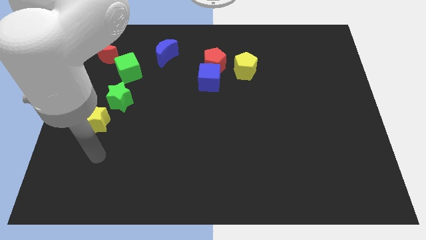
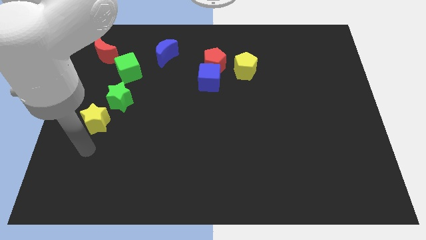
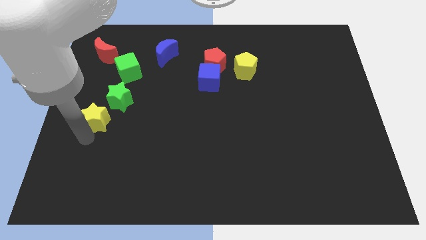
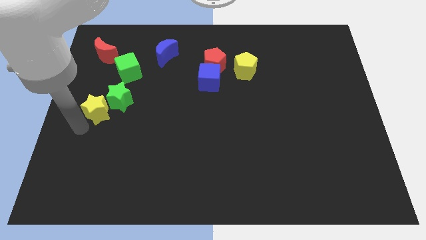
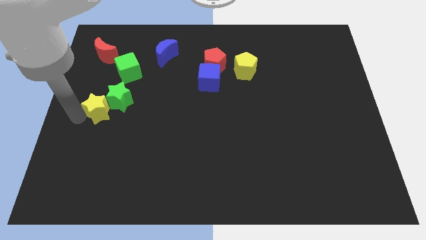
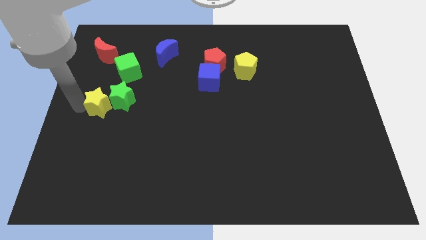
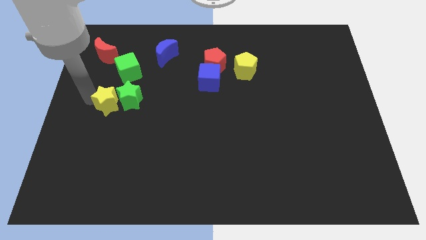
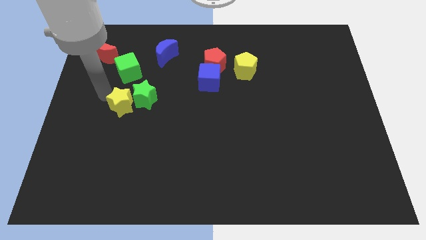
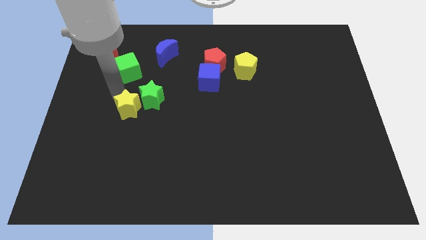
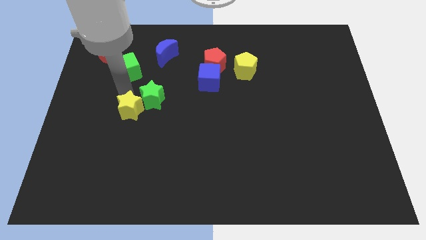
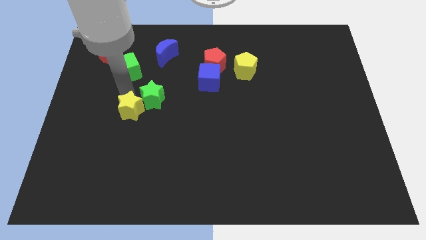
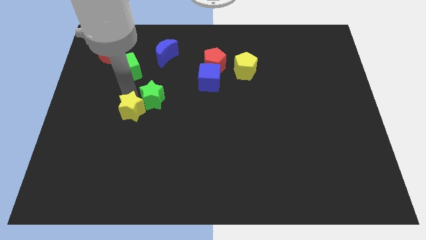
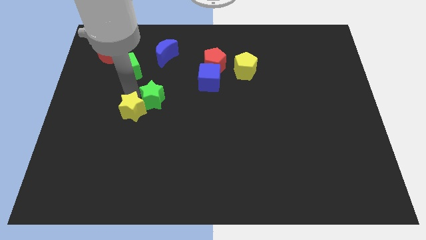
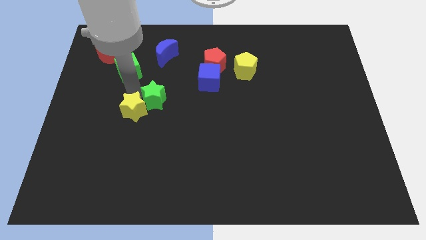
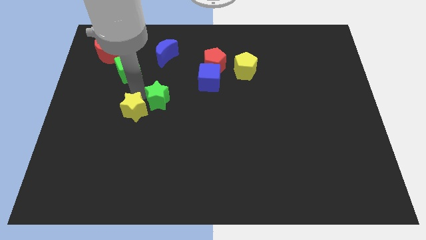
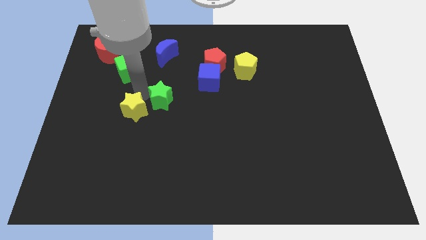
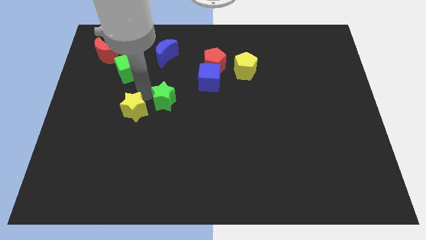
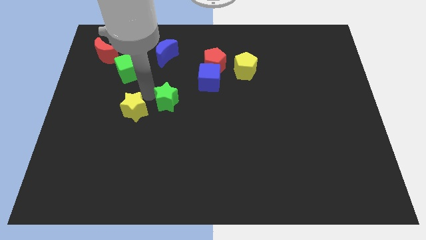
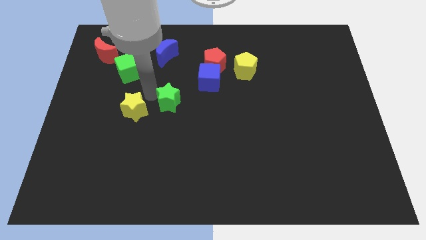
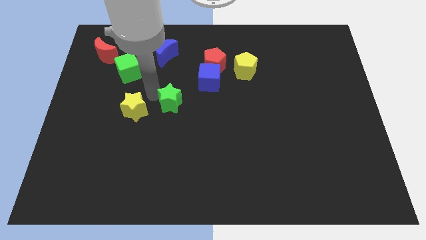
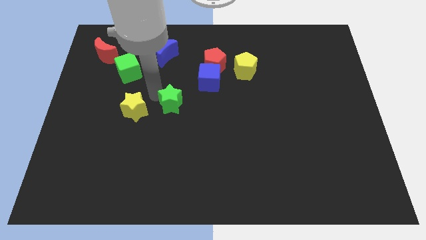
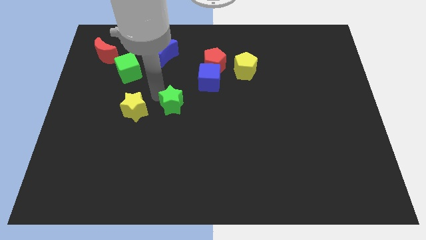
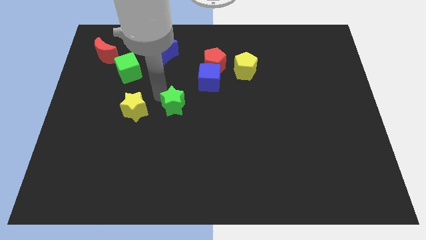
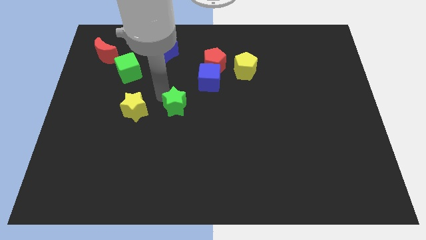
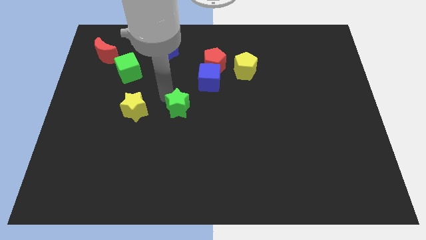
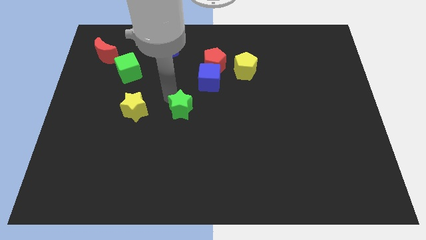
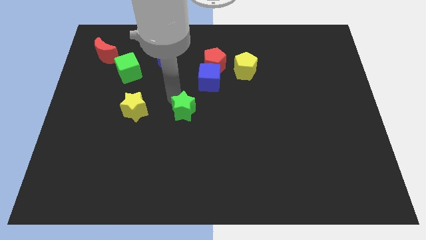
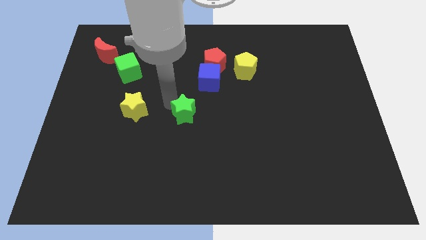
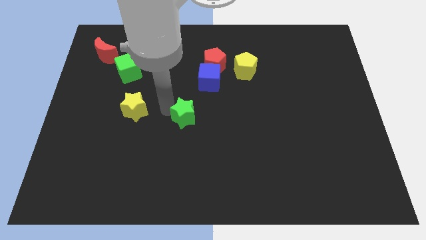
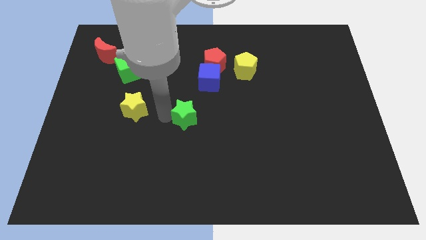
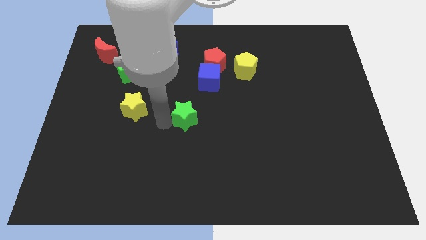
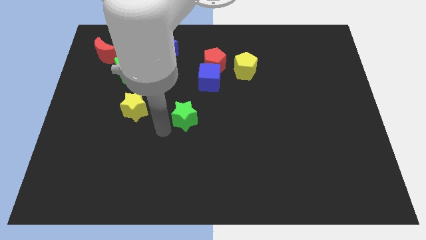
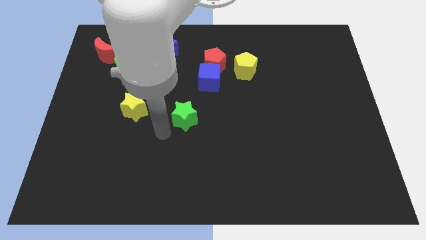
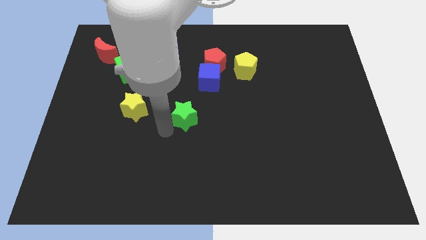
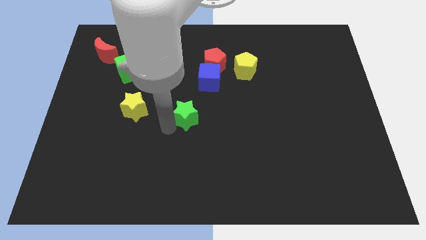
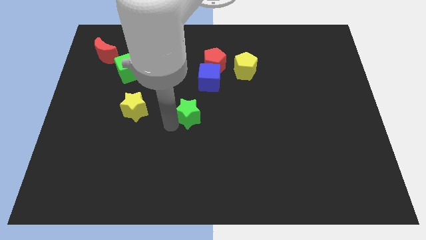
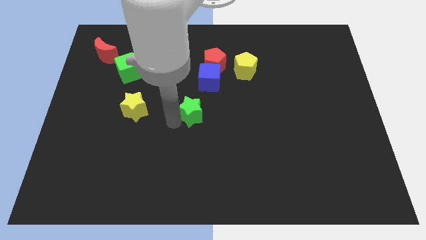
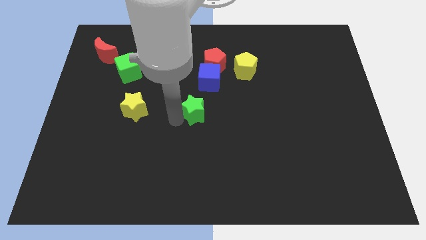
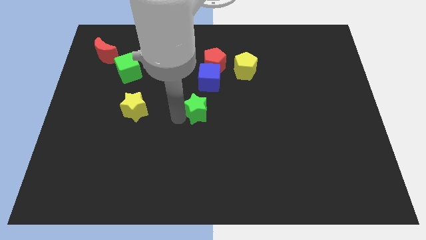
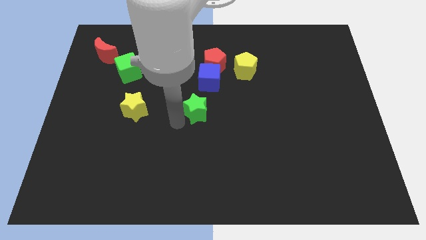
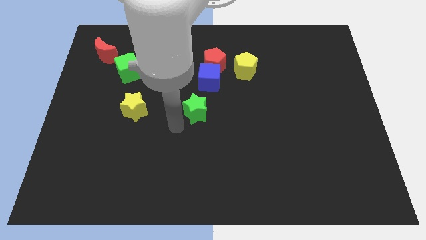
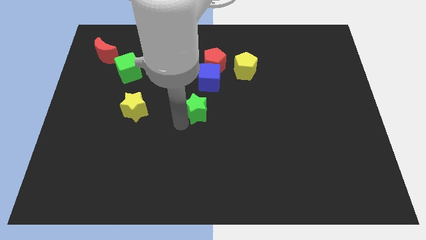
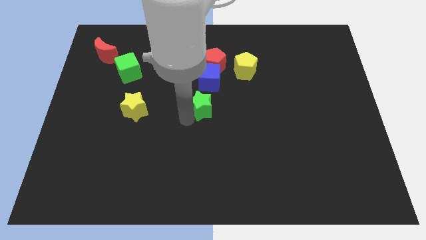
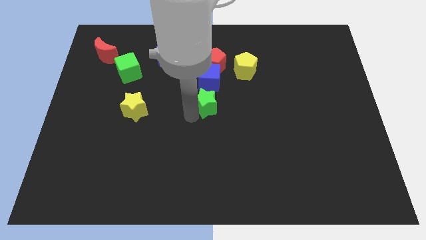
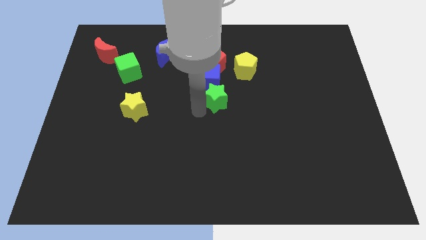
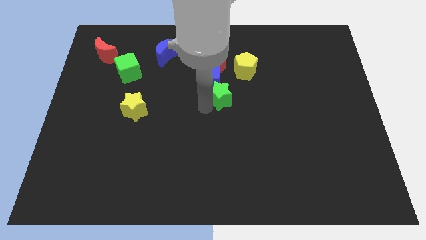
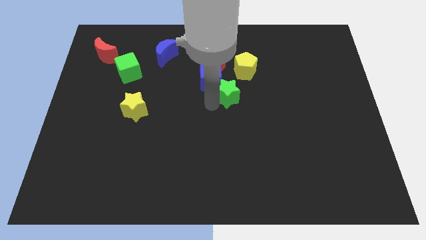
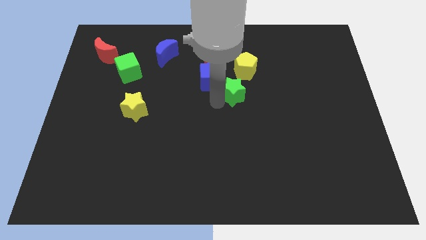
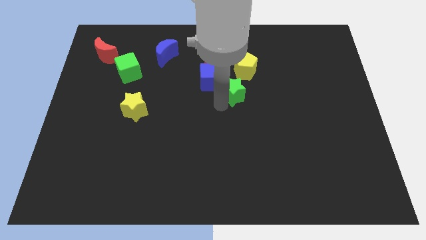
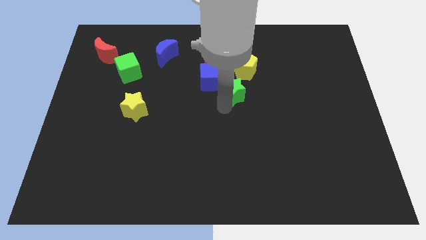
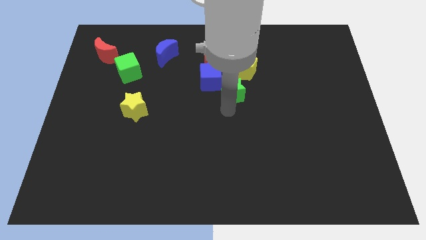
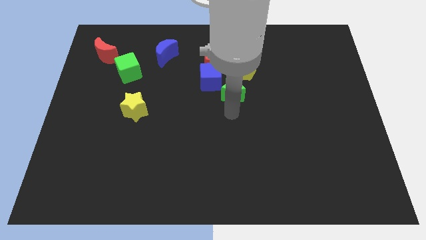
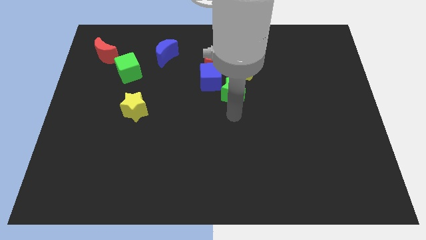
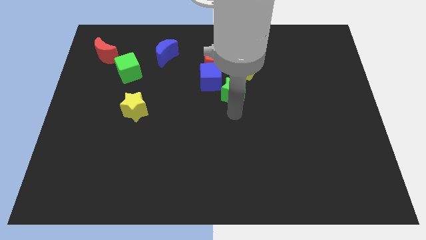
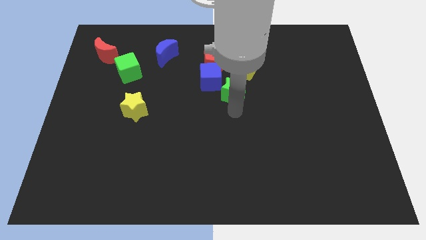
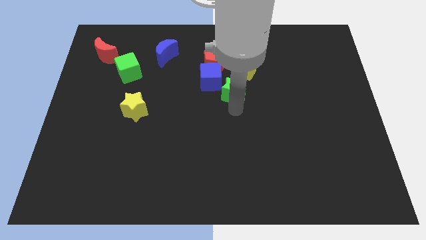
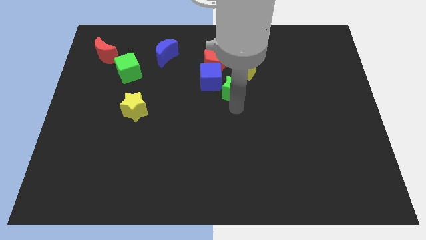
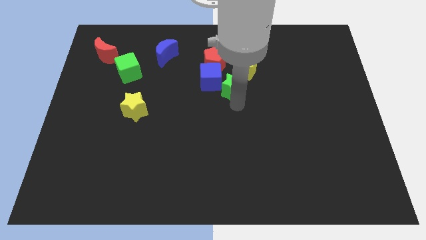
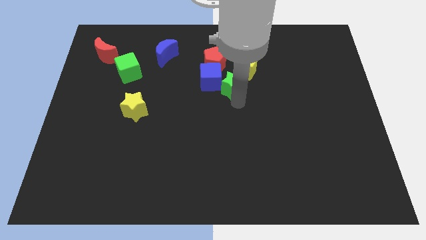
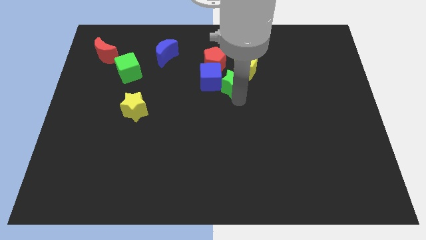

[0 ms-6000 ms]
slide the green star close to the yellow pentagon

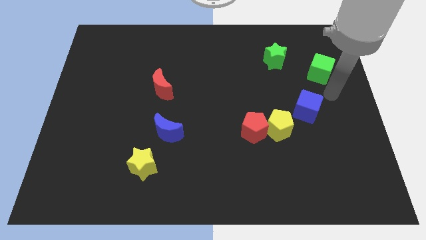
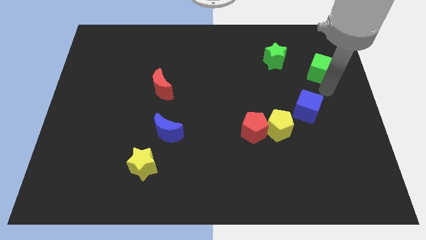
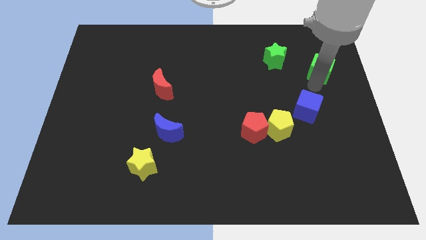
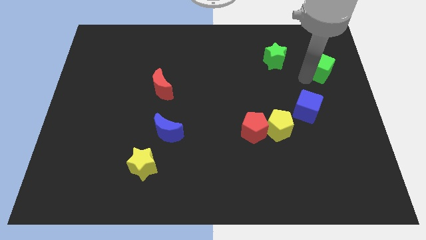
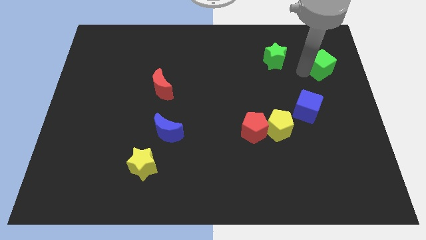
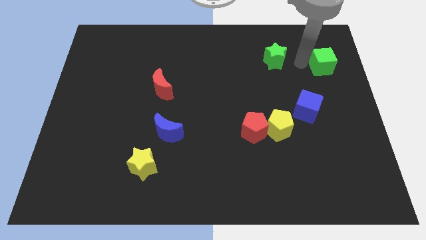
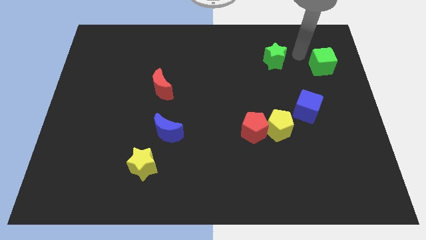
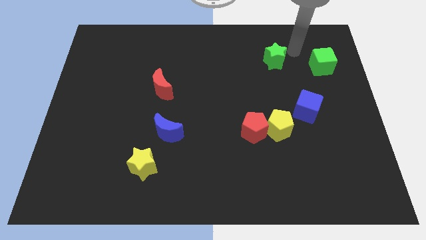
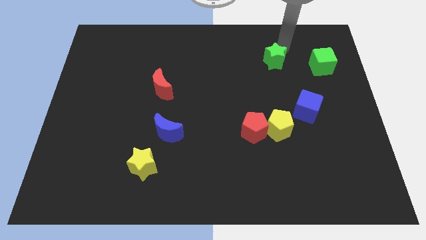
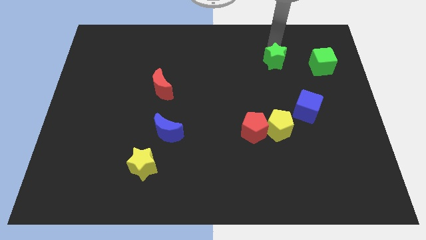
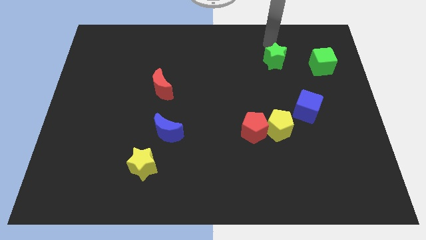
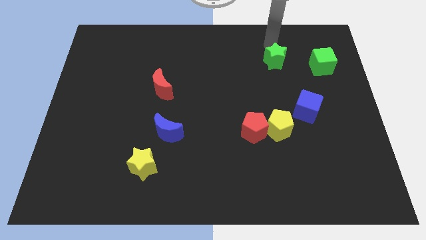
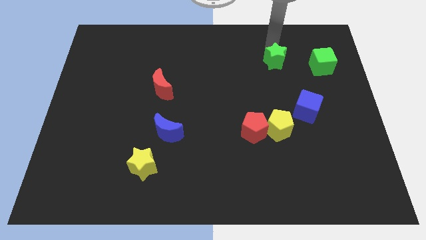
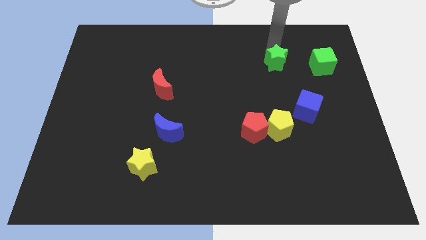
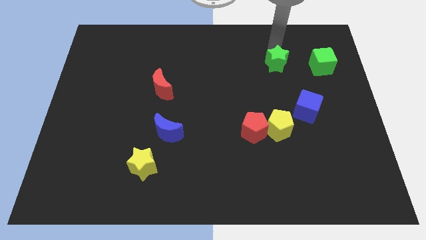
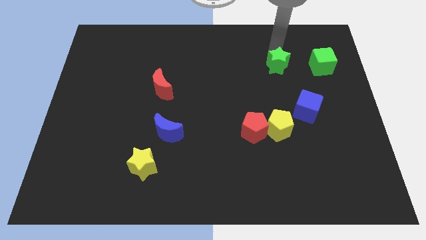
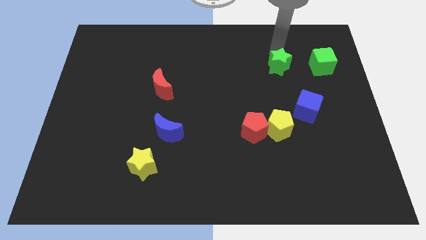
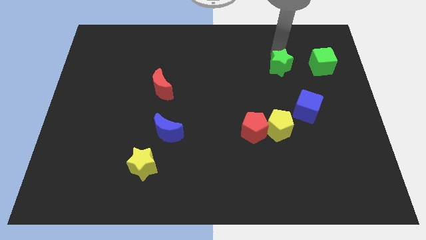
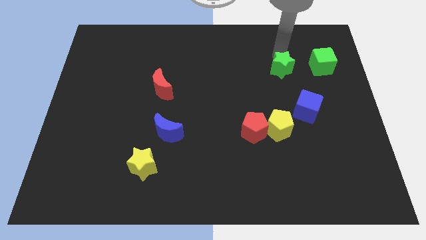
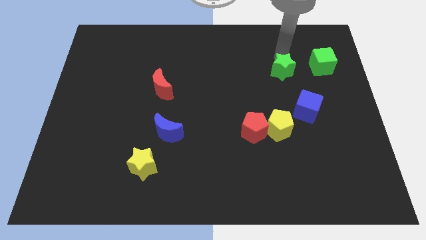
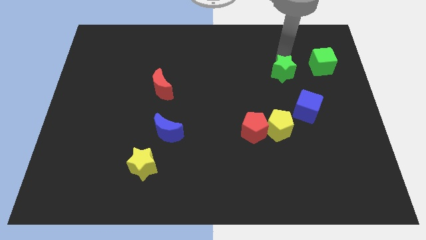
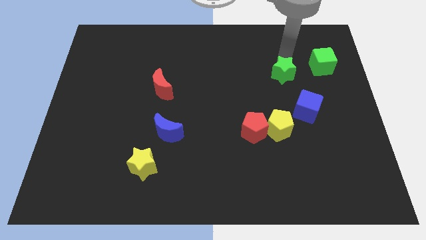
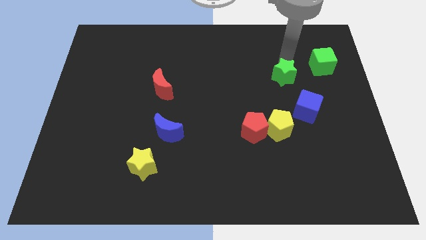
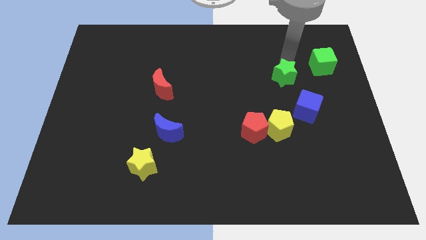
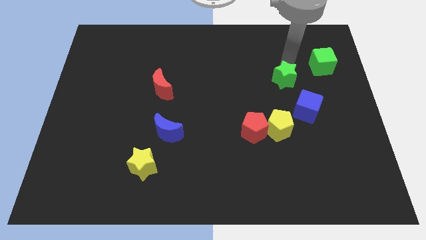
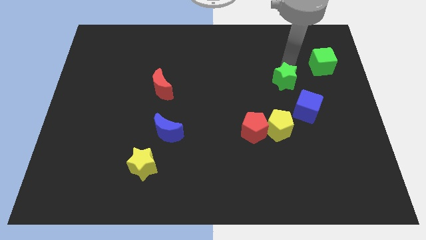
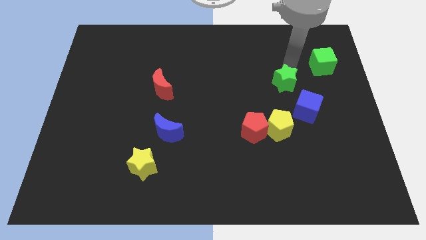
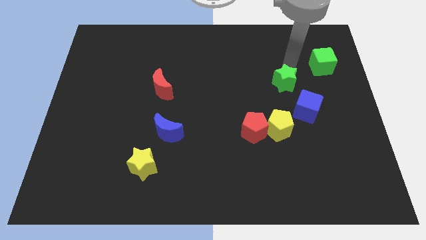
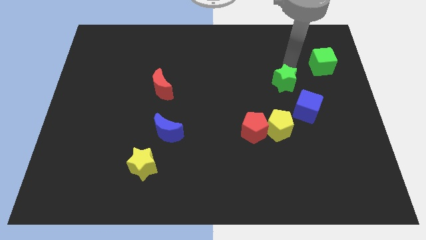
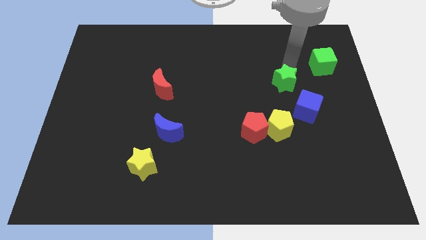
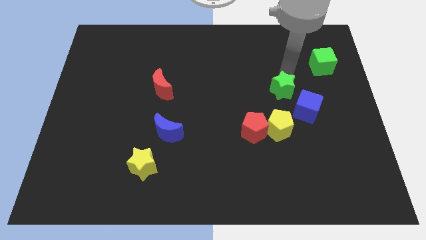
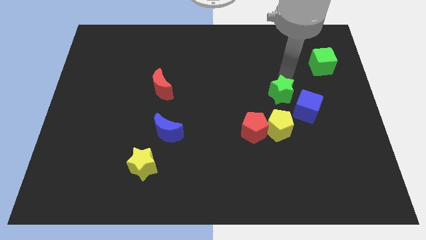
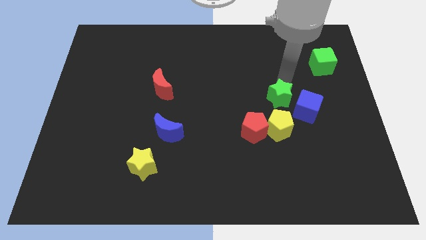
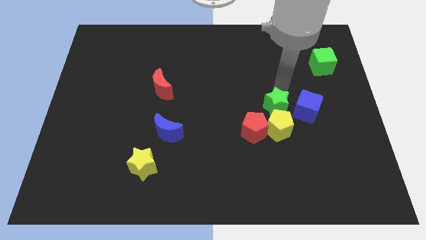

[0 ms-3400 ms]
push the green star towards the yellow pentagon
